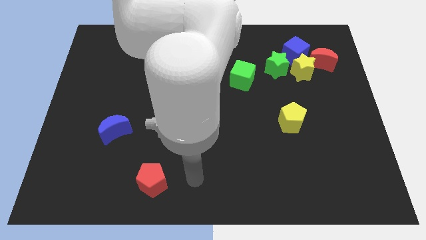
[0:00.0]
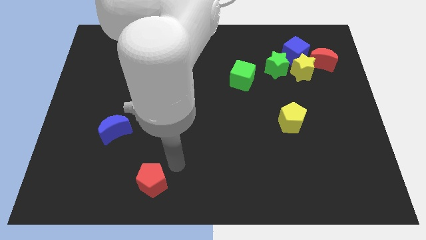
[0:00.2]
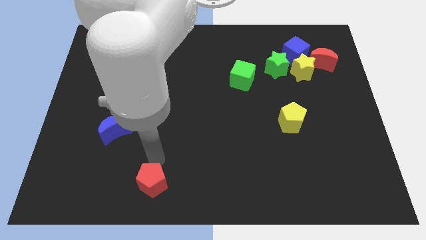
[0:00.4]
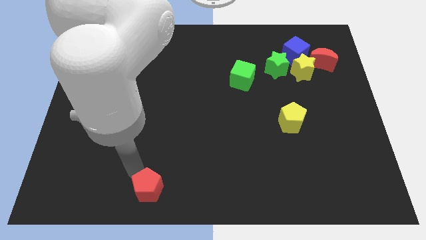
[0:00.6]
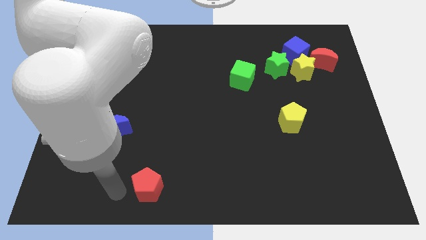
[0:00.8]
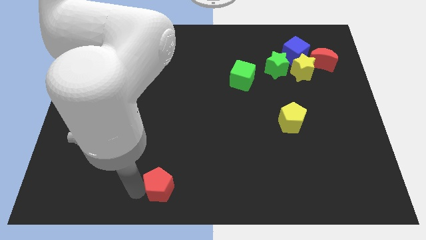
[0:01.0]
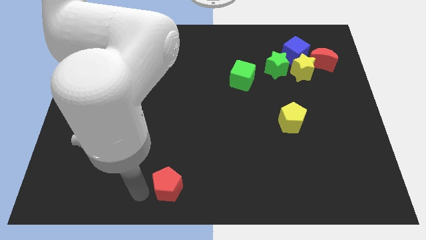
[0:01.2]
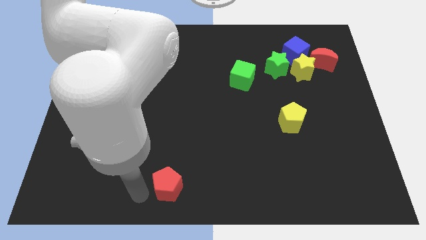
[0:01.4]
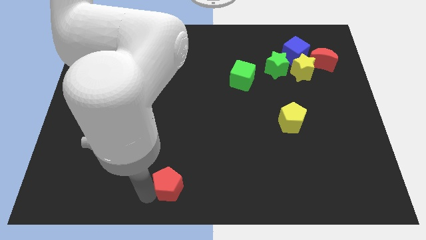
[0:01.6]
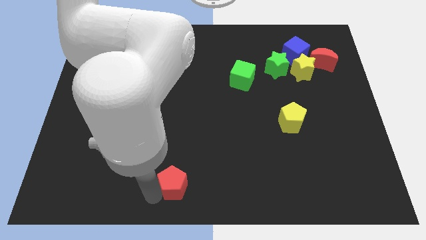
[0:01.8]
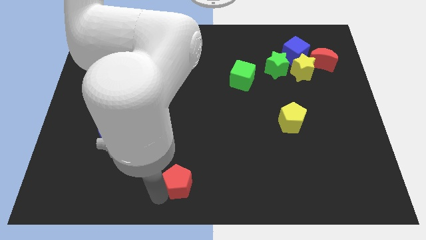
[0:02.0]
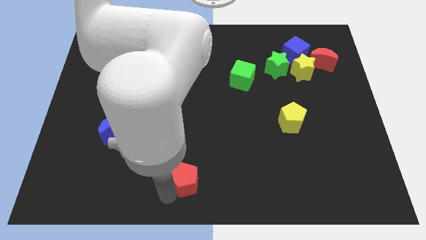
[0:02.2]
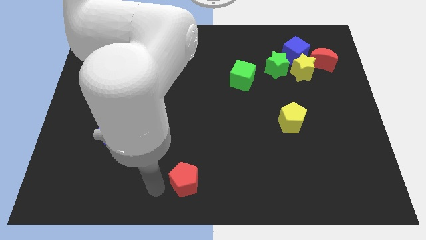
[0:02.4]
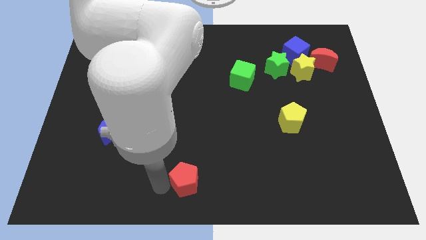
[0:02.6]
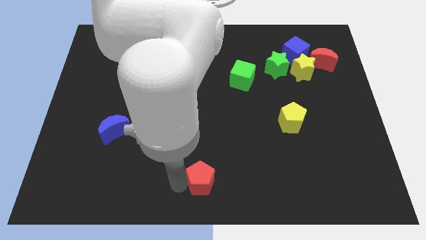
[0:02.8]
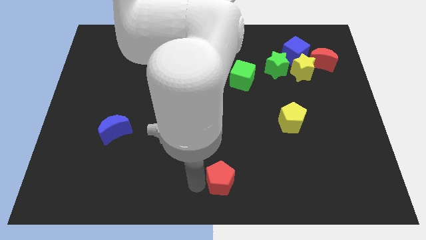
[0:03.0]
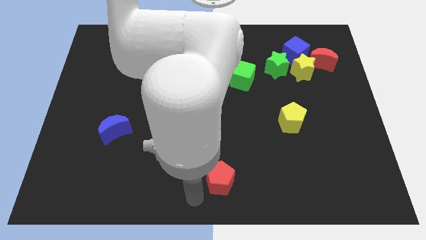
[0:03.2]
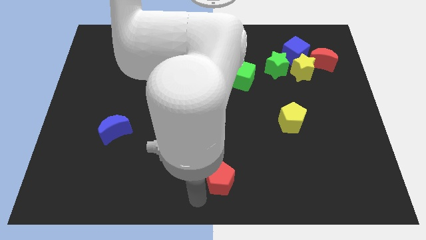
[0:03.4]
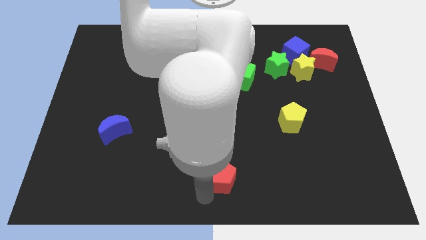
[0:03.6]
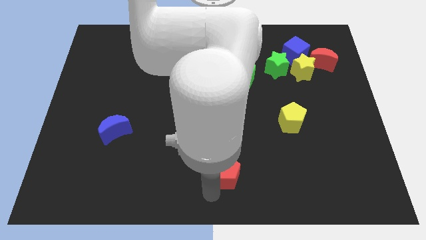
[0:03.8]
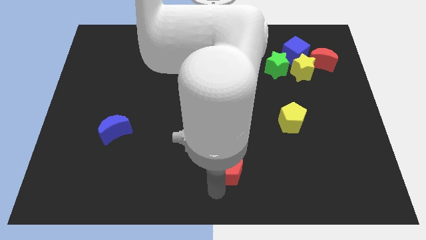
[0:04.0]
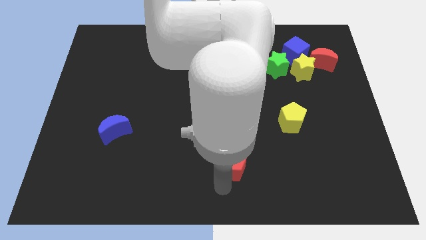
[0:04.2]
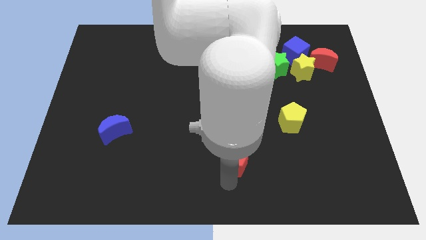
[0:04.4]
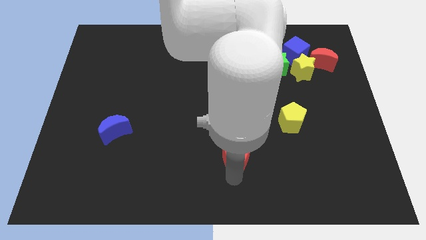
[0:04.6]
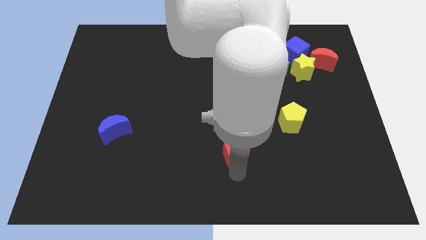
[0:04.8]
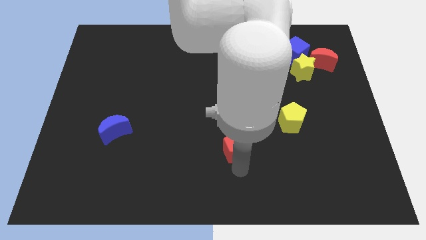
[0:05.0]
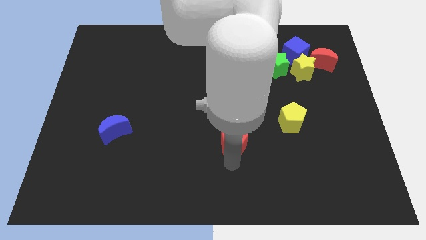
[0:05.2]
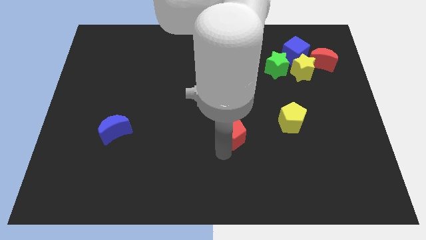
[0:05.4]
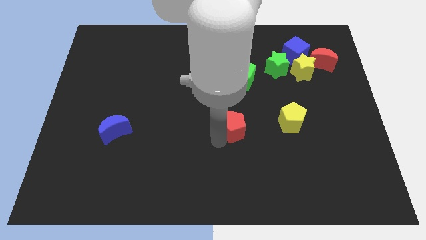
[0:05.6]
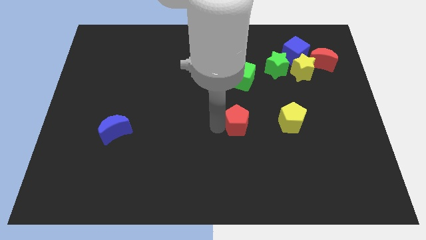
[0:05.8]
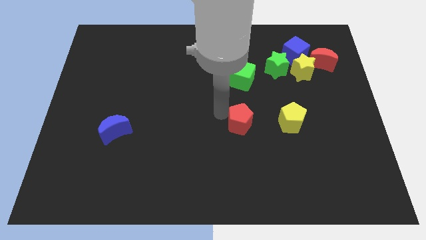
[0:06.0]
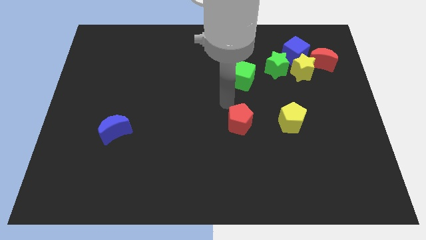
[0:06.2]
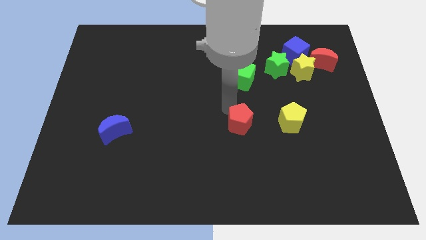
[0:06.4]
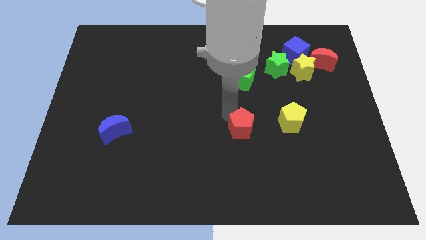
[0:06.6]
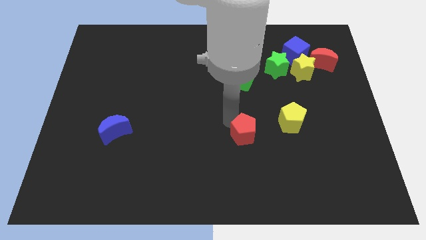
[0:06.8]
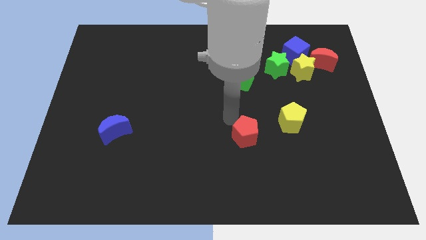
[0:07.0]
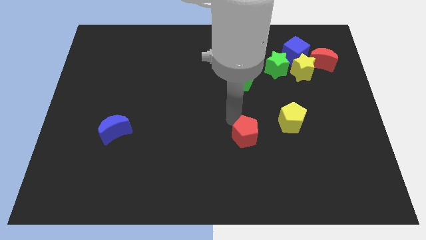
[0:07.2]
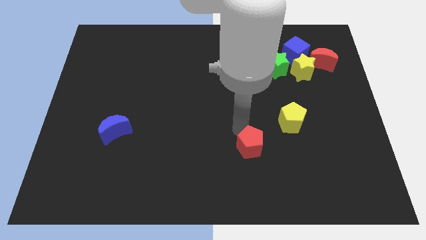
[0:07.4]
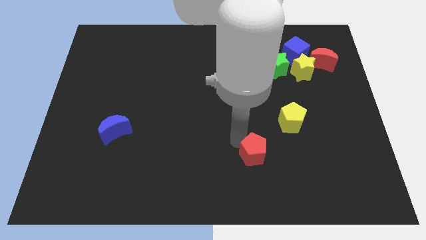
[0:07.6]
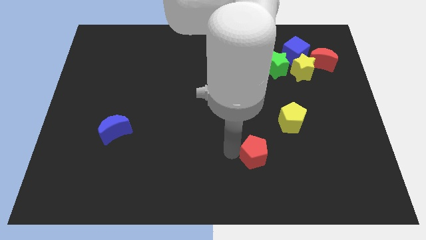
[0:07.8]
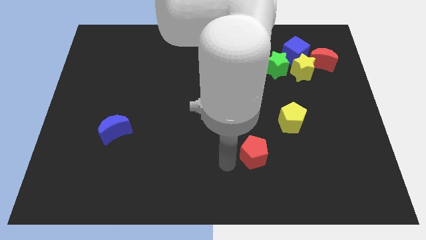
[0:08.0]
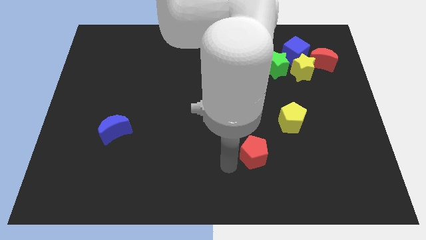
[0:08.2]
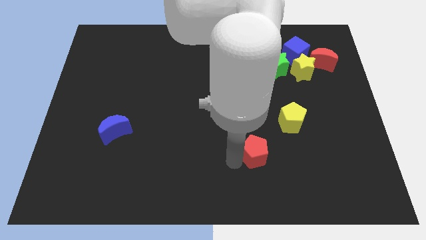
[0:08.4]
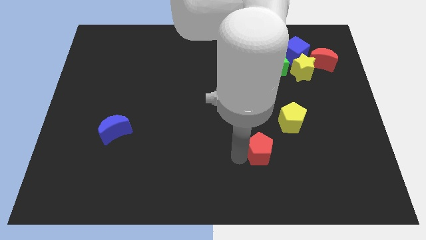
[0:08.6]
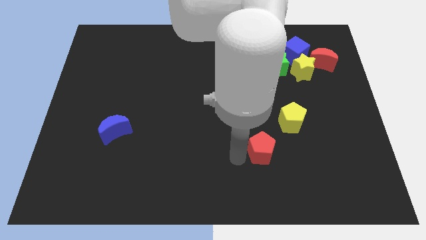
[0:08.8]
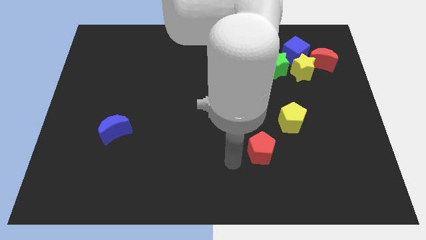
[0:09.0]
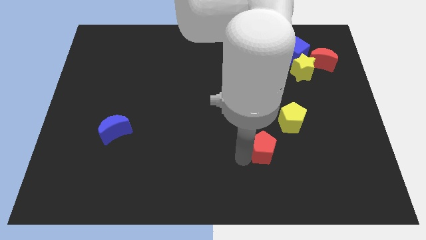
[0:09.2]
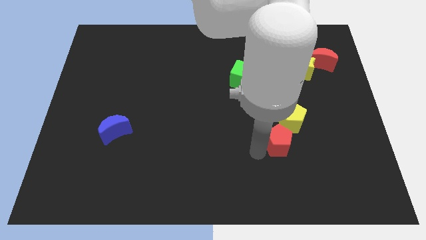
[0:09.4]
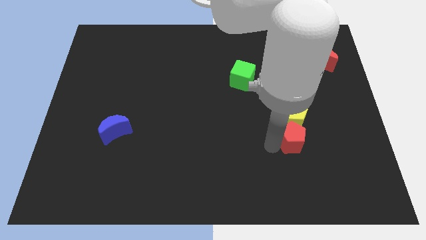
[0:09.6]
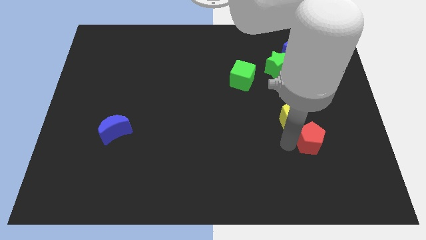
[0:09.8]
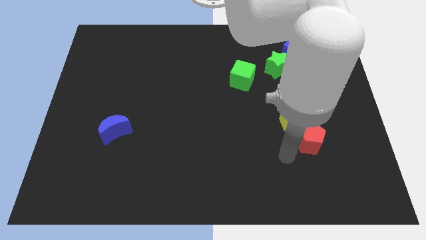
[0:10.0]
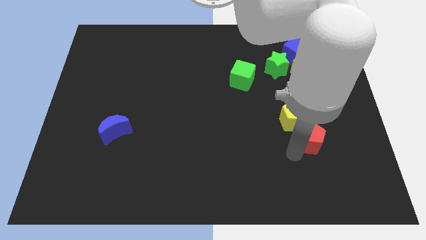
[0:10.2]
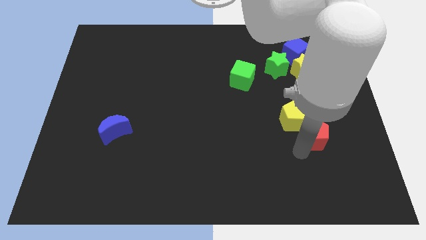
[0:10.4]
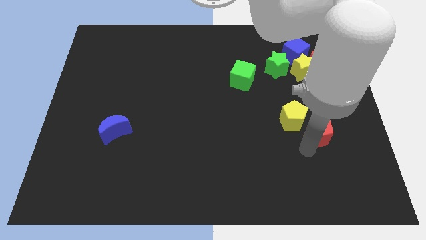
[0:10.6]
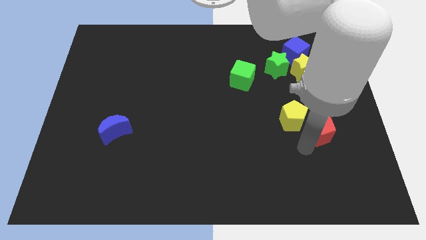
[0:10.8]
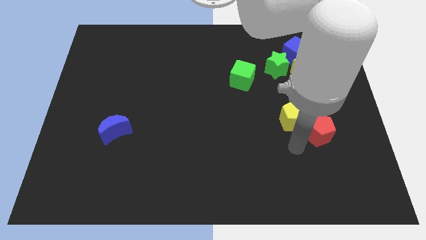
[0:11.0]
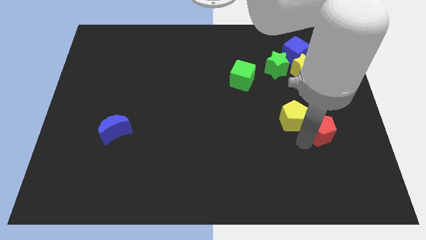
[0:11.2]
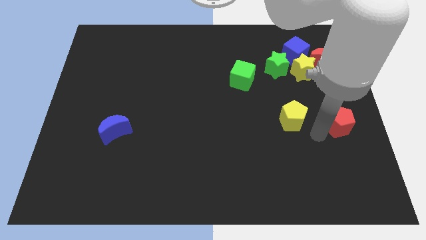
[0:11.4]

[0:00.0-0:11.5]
slide the red pentagon to the right side of the board

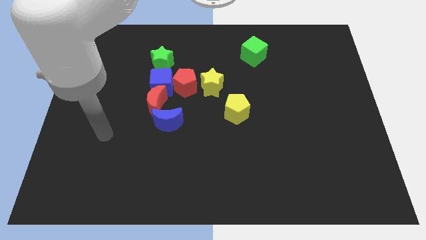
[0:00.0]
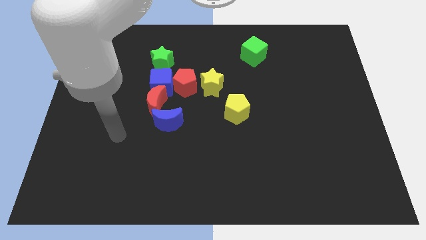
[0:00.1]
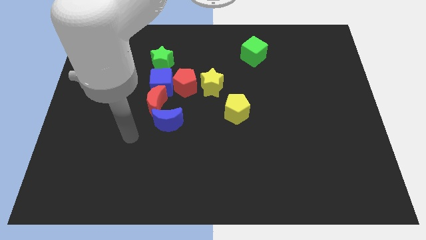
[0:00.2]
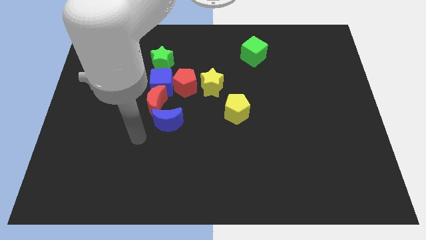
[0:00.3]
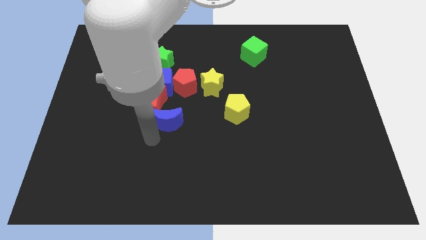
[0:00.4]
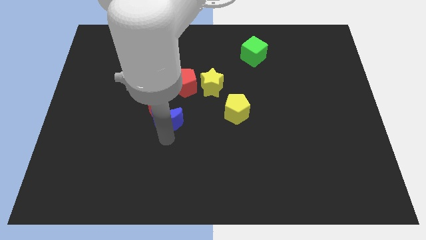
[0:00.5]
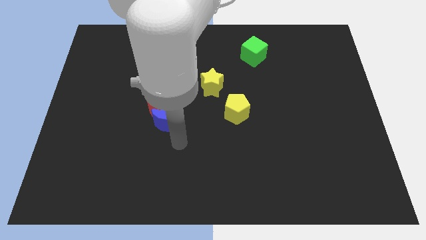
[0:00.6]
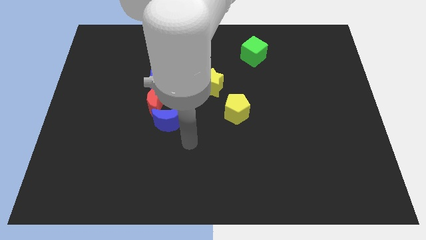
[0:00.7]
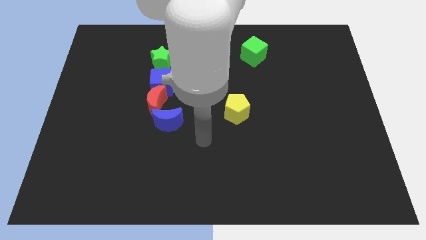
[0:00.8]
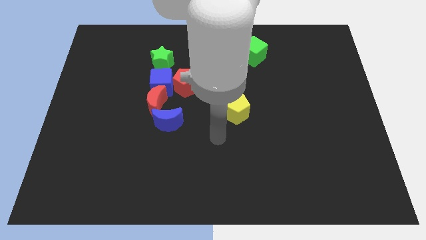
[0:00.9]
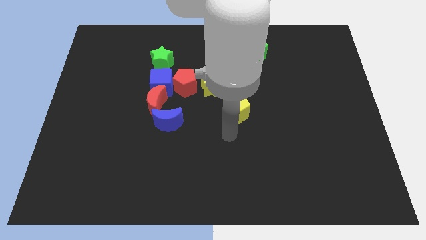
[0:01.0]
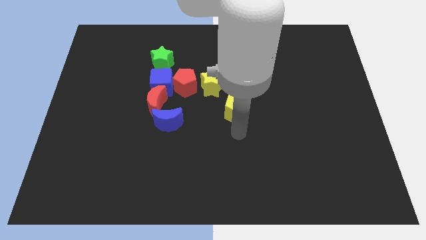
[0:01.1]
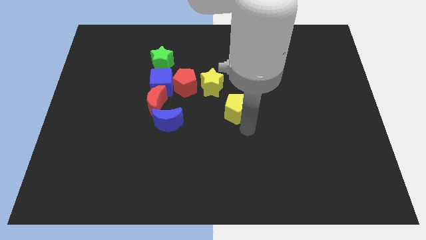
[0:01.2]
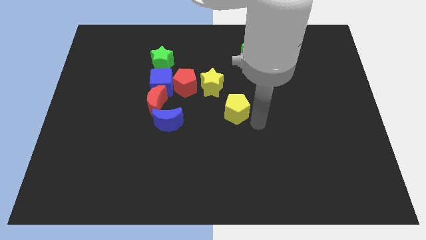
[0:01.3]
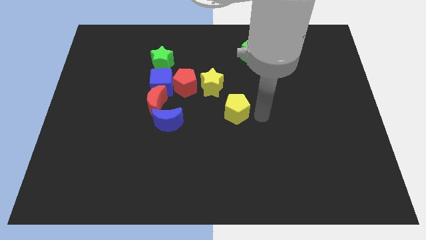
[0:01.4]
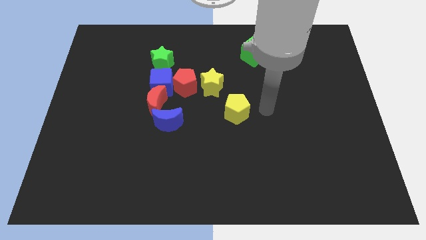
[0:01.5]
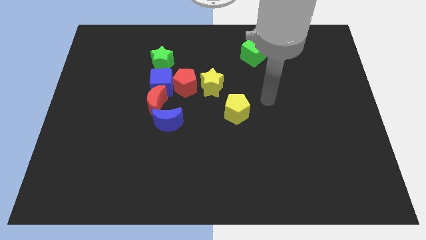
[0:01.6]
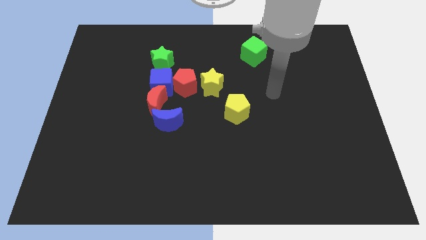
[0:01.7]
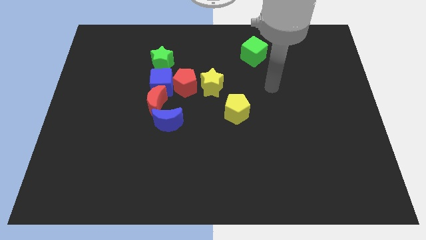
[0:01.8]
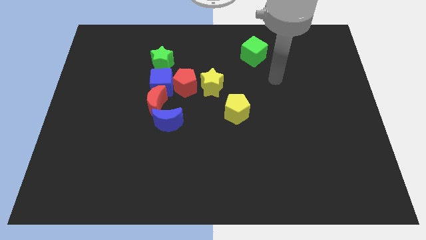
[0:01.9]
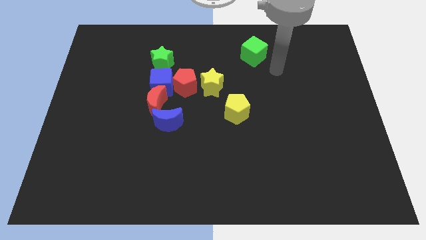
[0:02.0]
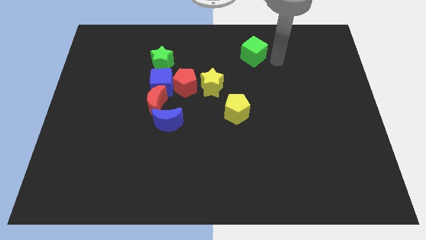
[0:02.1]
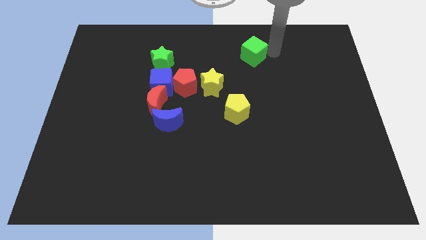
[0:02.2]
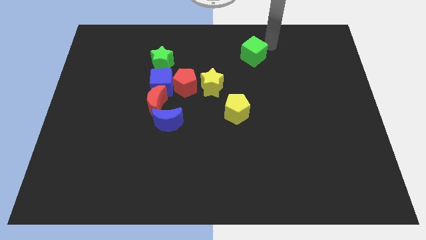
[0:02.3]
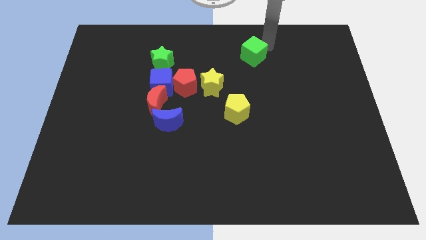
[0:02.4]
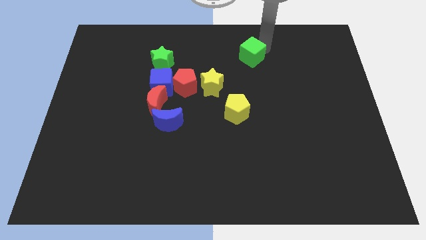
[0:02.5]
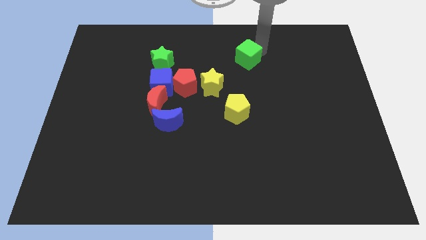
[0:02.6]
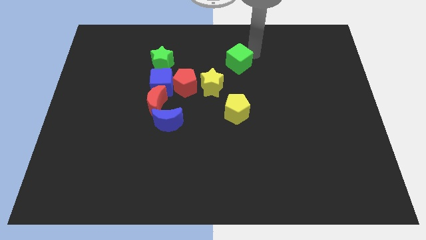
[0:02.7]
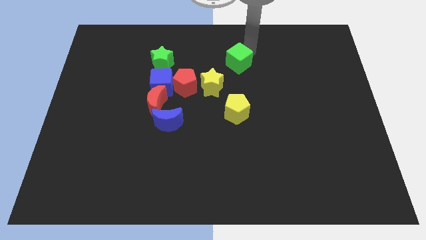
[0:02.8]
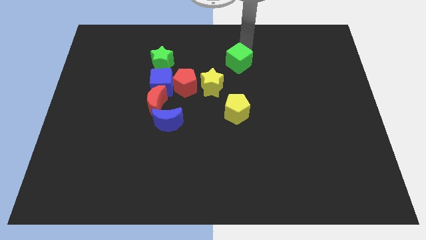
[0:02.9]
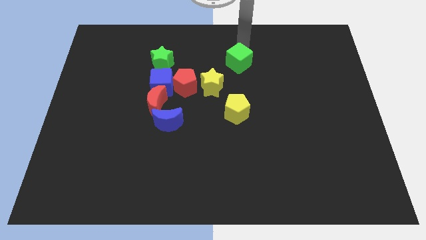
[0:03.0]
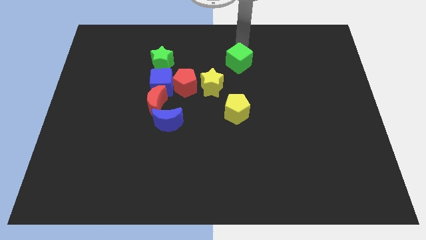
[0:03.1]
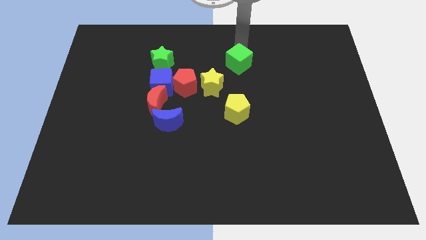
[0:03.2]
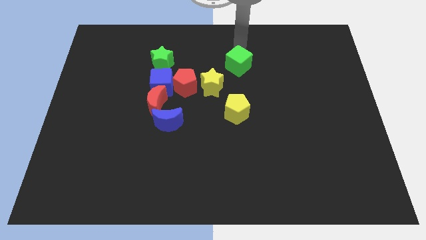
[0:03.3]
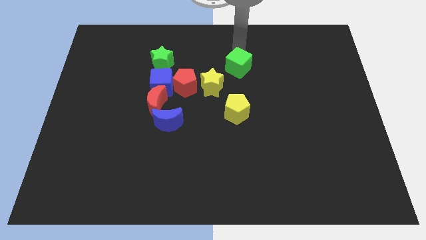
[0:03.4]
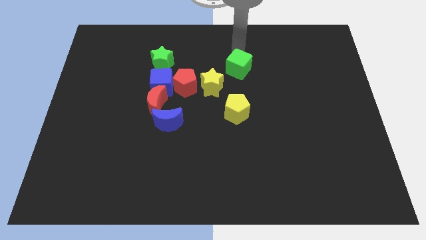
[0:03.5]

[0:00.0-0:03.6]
move the green cube to the middle of the board
